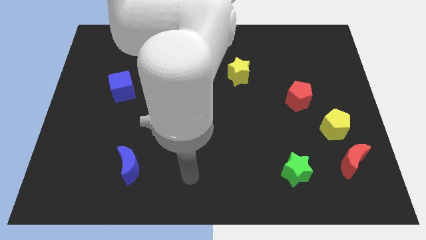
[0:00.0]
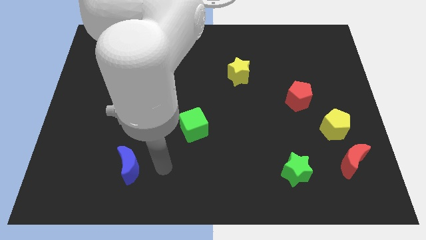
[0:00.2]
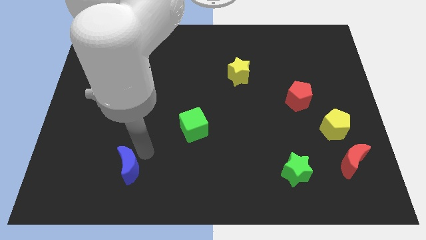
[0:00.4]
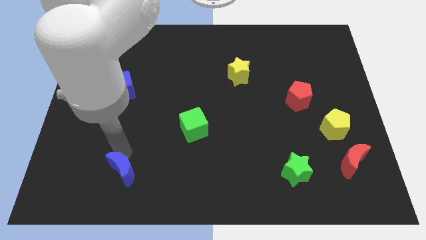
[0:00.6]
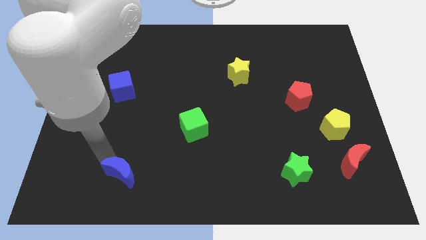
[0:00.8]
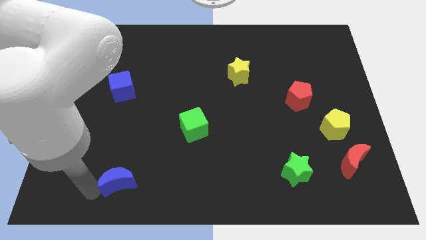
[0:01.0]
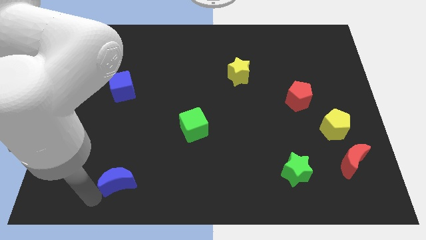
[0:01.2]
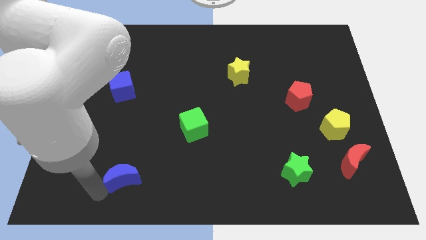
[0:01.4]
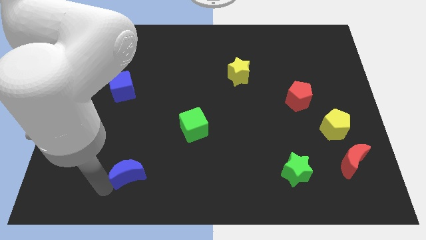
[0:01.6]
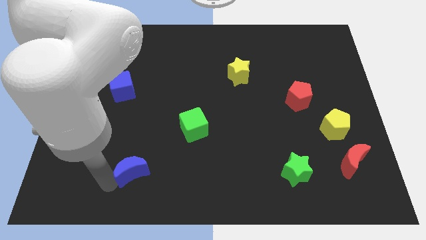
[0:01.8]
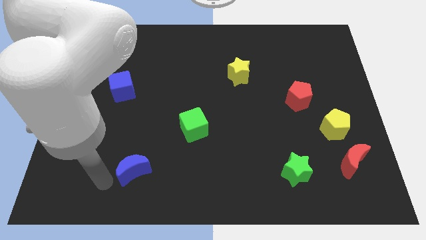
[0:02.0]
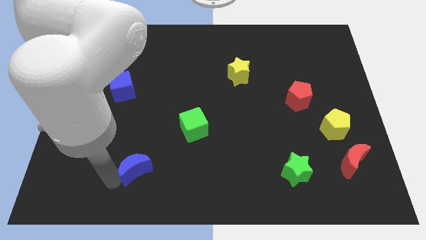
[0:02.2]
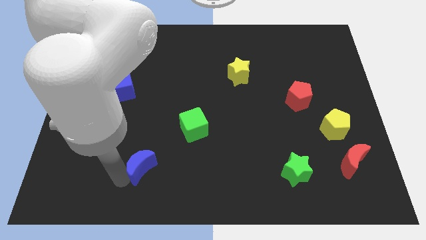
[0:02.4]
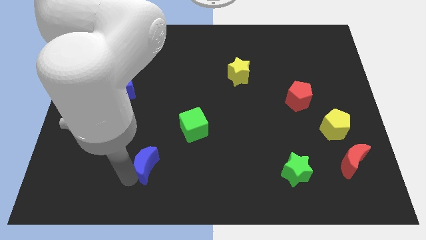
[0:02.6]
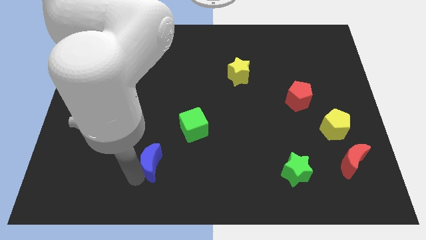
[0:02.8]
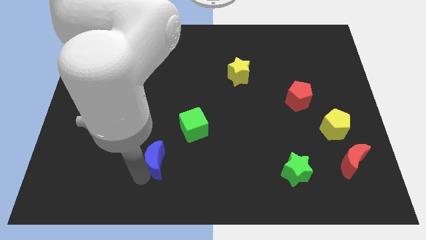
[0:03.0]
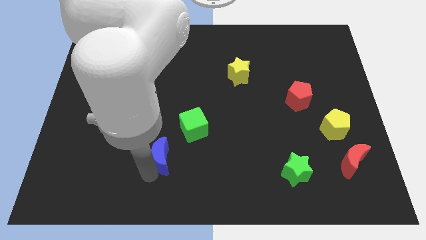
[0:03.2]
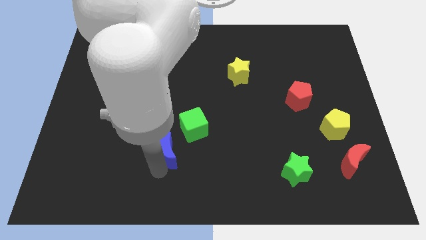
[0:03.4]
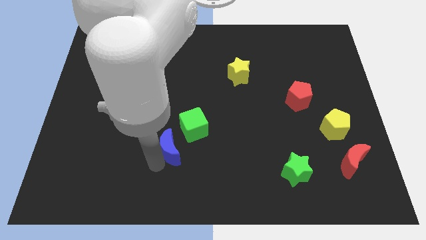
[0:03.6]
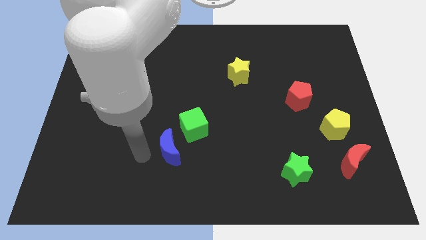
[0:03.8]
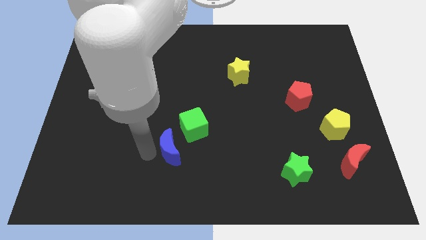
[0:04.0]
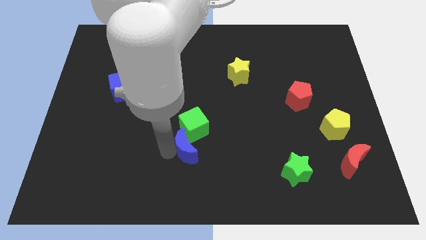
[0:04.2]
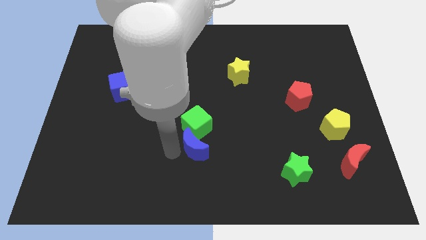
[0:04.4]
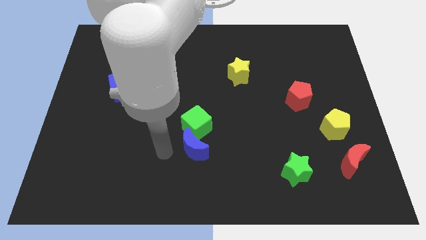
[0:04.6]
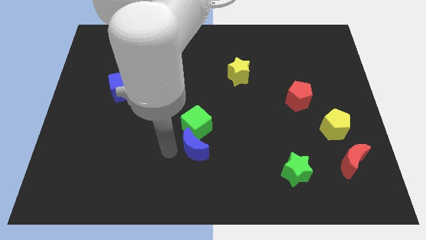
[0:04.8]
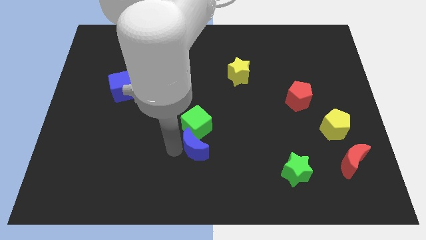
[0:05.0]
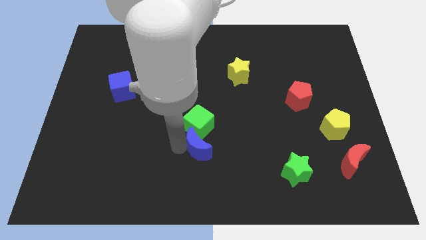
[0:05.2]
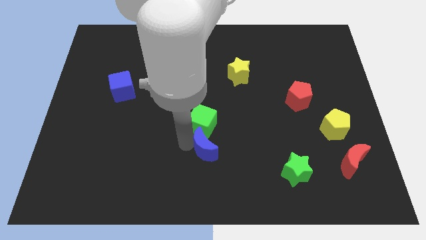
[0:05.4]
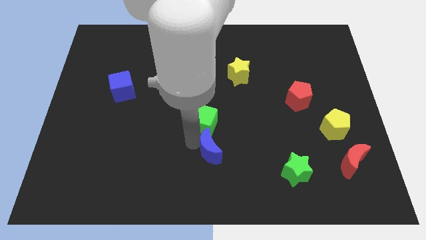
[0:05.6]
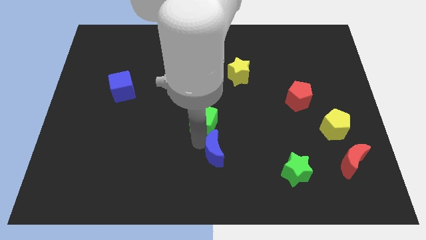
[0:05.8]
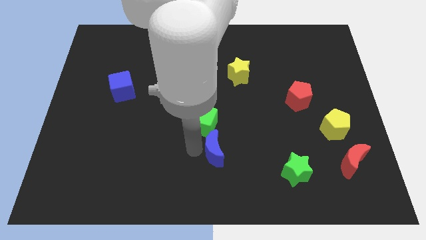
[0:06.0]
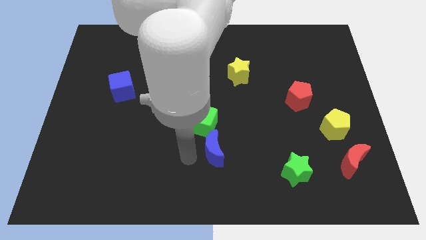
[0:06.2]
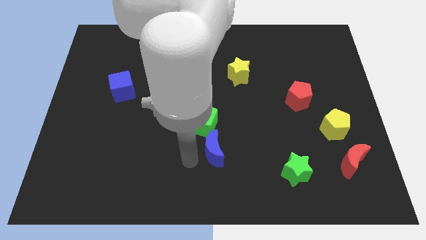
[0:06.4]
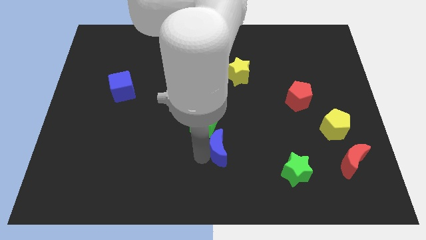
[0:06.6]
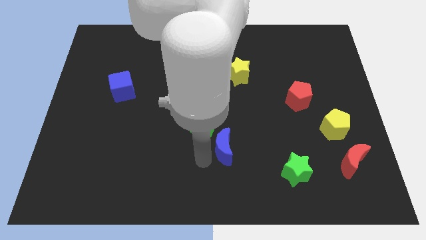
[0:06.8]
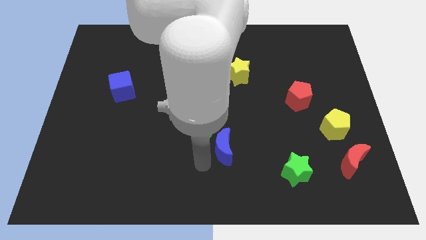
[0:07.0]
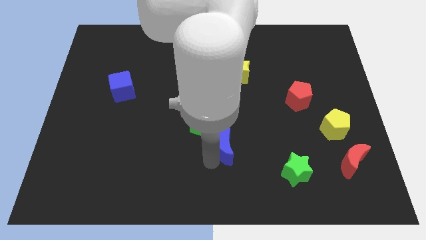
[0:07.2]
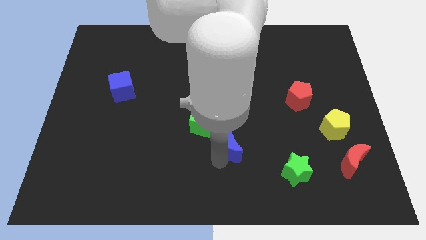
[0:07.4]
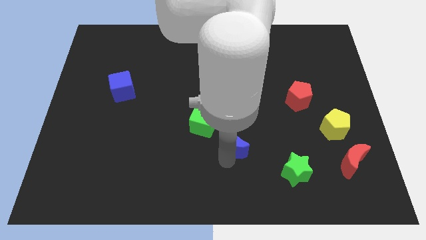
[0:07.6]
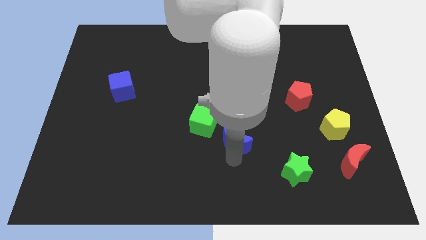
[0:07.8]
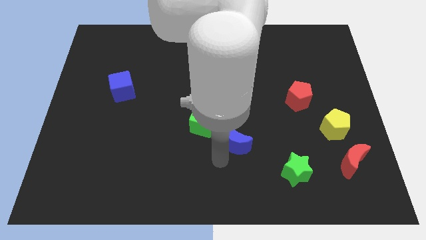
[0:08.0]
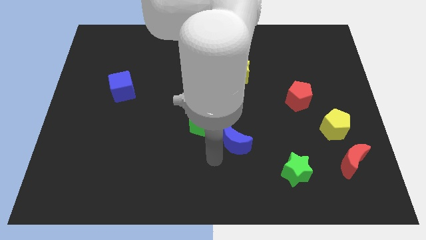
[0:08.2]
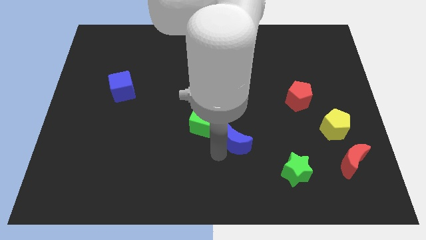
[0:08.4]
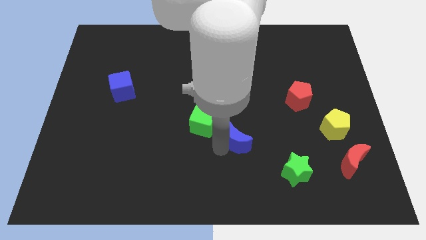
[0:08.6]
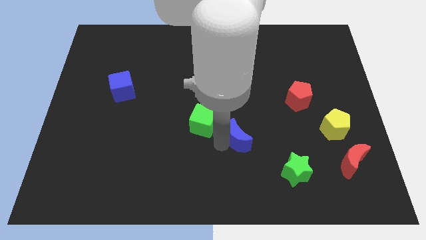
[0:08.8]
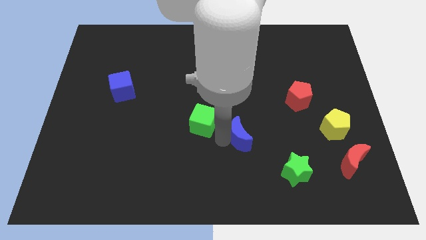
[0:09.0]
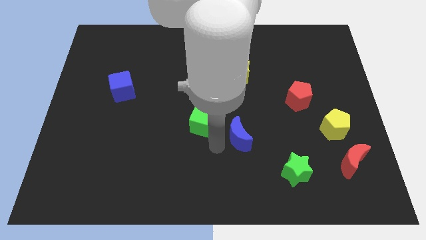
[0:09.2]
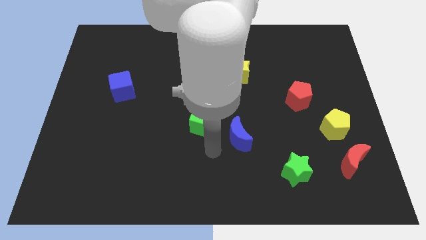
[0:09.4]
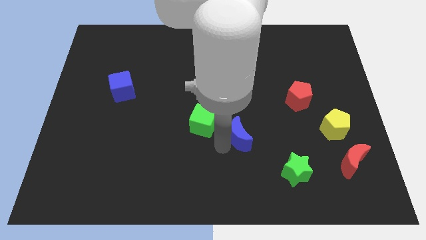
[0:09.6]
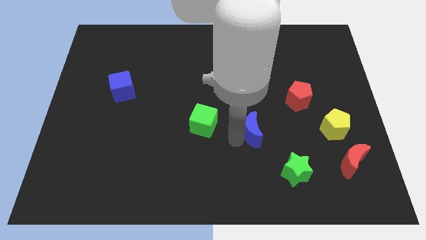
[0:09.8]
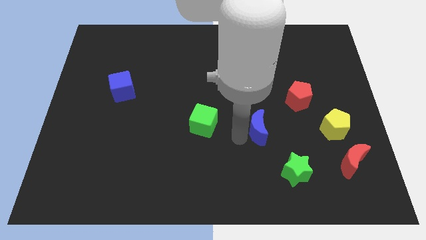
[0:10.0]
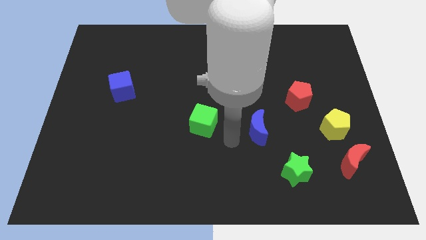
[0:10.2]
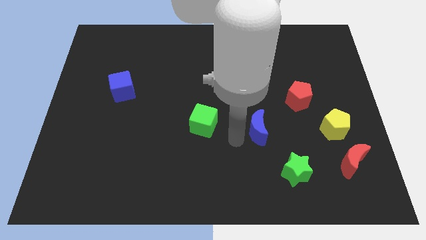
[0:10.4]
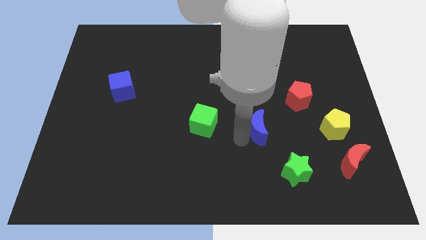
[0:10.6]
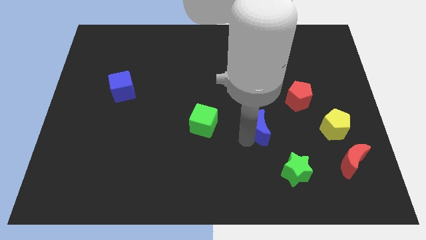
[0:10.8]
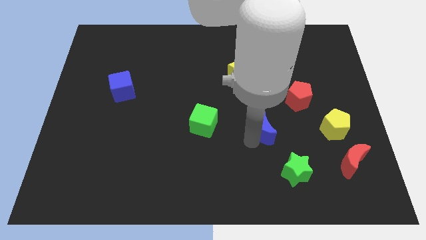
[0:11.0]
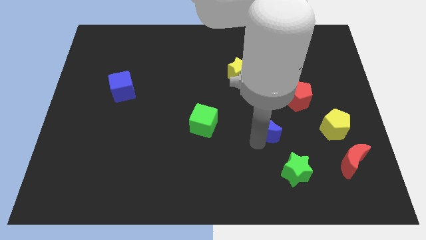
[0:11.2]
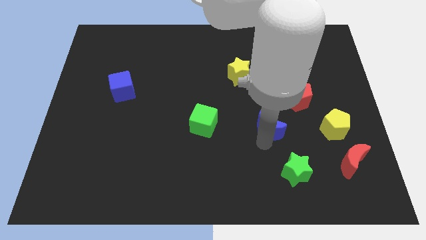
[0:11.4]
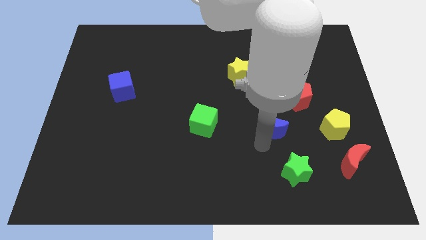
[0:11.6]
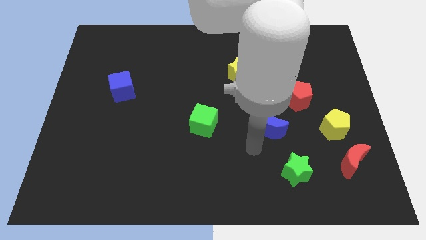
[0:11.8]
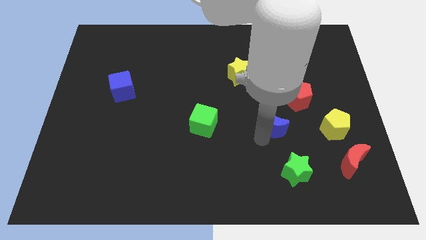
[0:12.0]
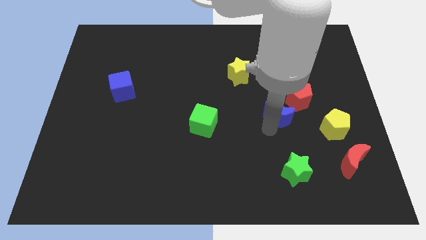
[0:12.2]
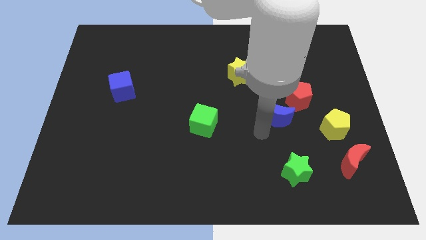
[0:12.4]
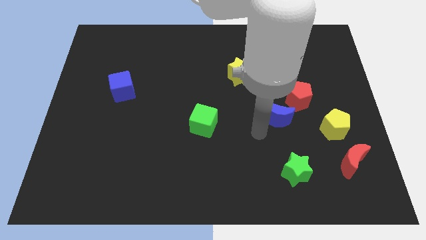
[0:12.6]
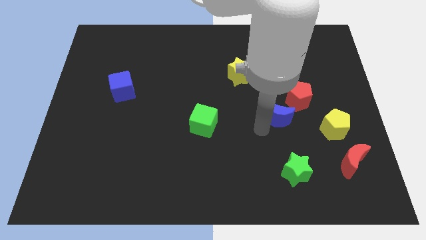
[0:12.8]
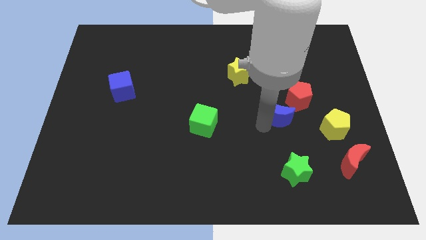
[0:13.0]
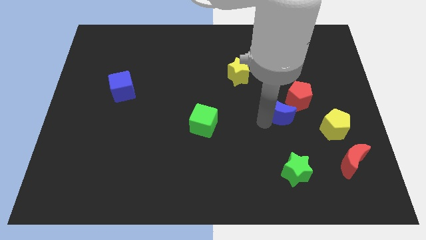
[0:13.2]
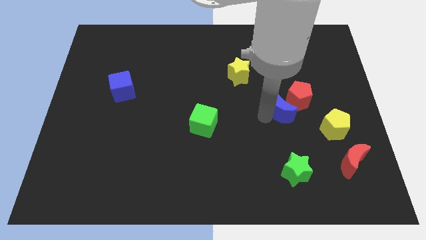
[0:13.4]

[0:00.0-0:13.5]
put the blue moon next to the red pentagon
